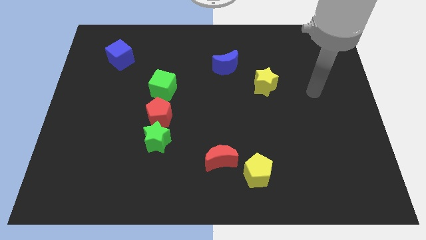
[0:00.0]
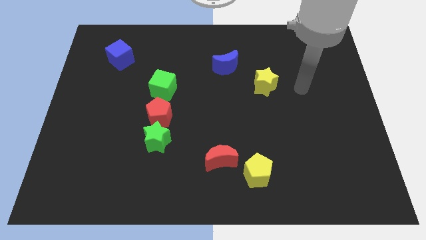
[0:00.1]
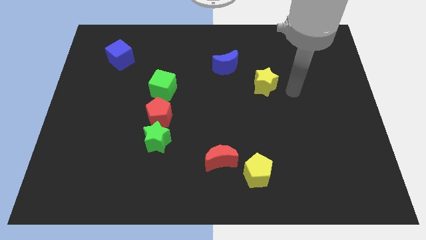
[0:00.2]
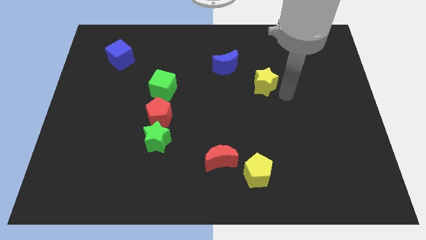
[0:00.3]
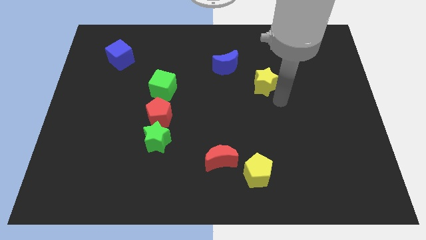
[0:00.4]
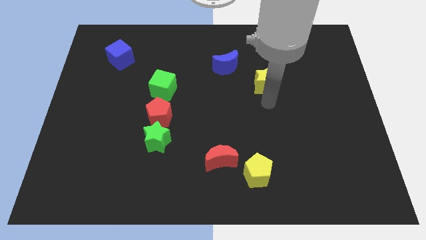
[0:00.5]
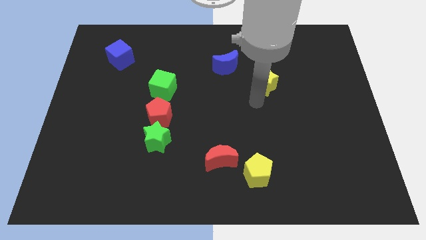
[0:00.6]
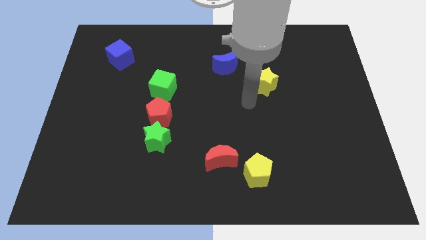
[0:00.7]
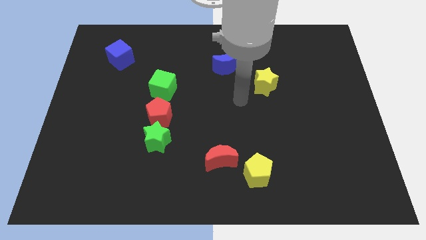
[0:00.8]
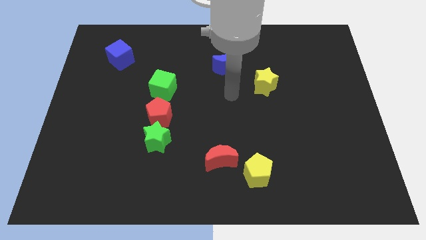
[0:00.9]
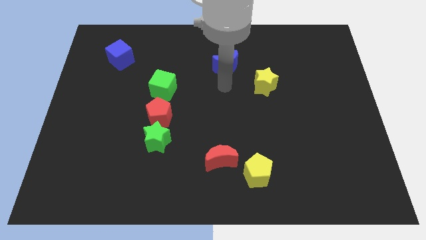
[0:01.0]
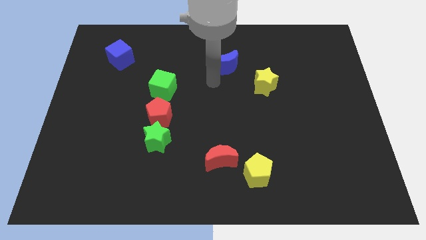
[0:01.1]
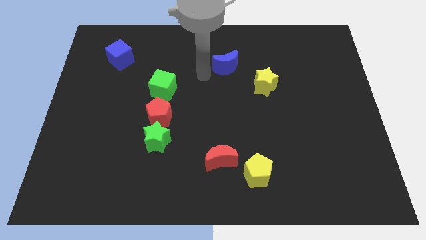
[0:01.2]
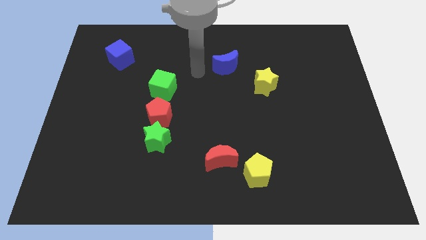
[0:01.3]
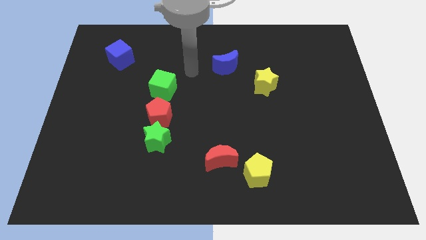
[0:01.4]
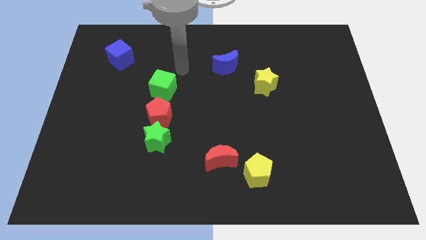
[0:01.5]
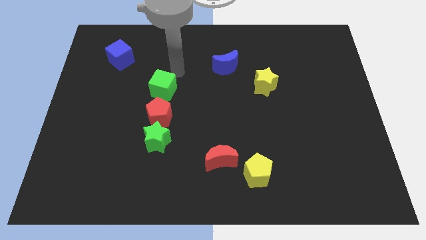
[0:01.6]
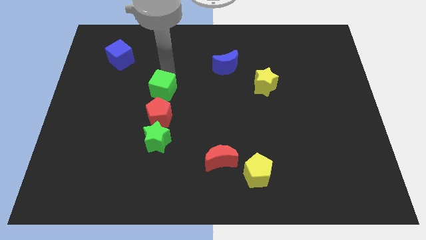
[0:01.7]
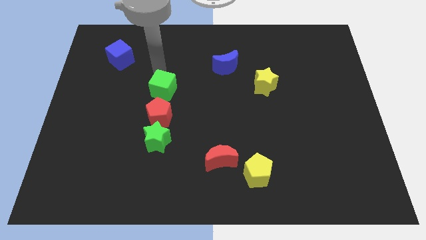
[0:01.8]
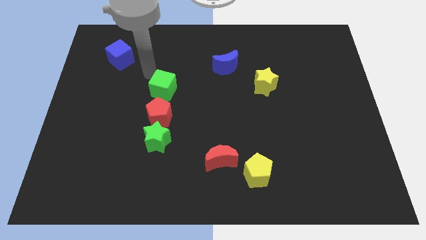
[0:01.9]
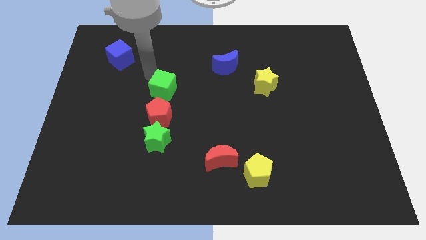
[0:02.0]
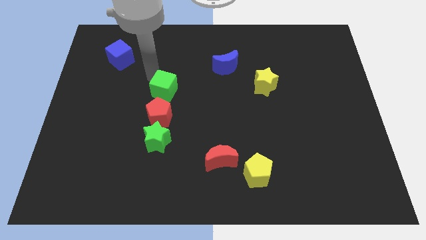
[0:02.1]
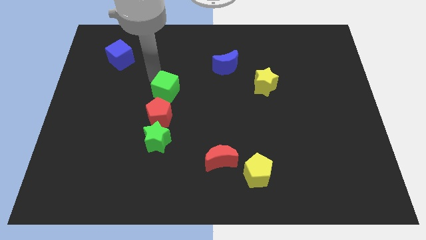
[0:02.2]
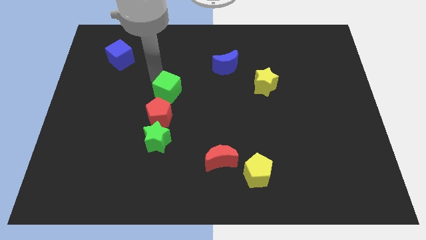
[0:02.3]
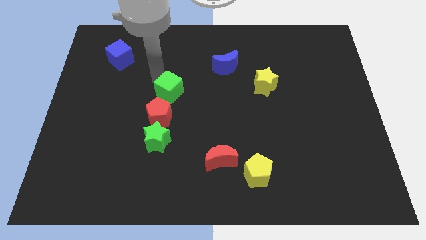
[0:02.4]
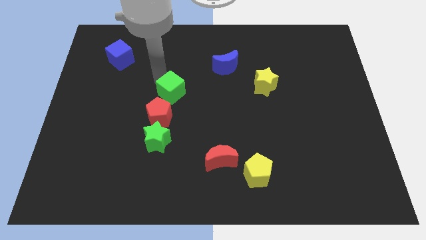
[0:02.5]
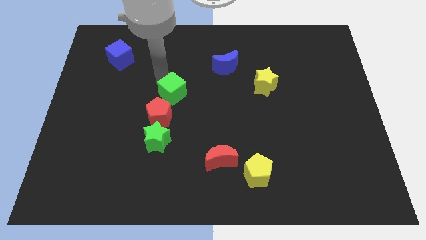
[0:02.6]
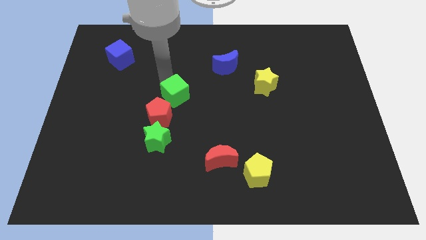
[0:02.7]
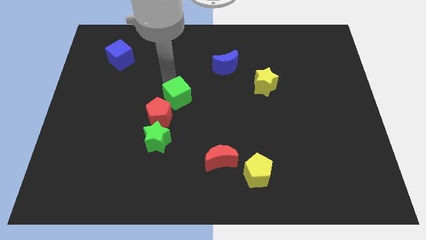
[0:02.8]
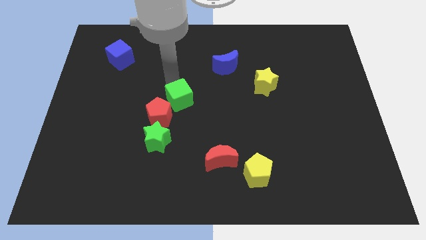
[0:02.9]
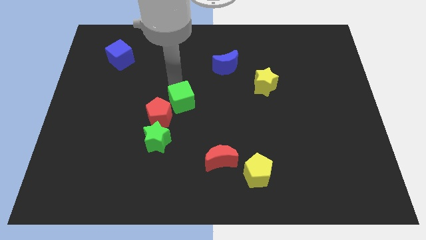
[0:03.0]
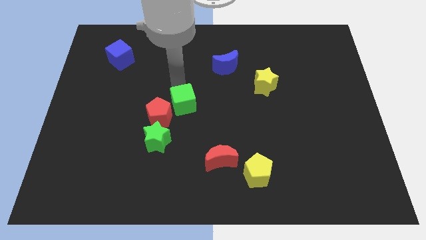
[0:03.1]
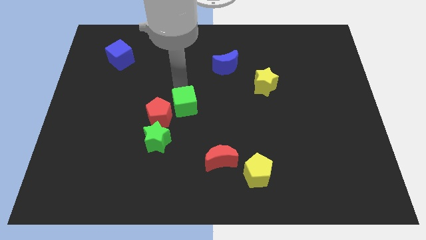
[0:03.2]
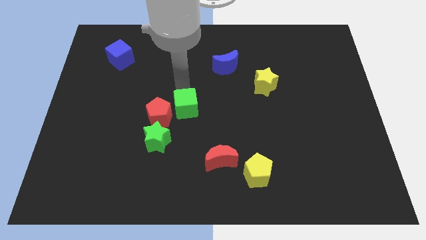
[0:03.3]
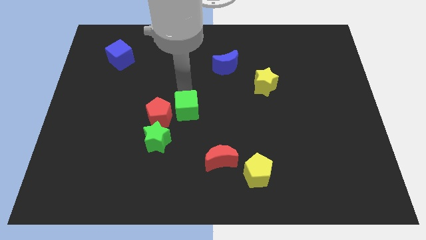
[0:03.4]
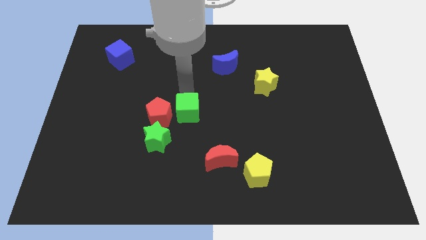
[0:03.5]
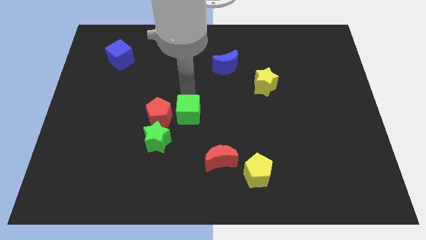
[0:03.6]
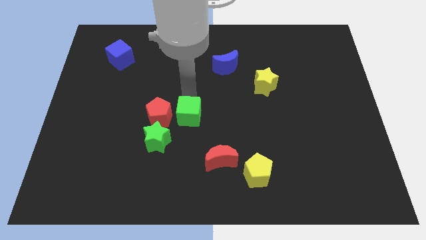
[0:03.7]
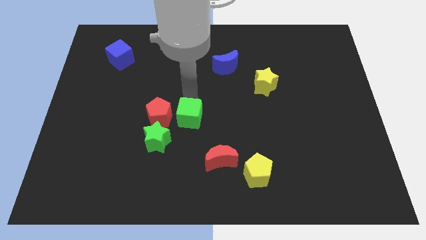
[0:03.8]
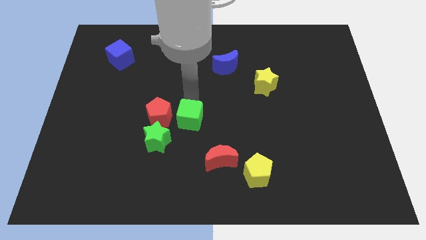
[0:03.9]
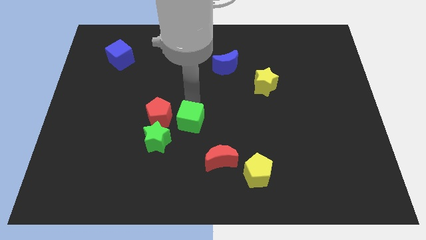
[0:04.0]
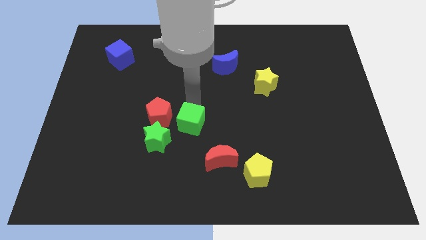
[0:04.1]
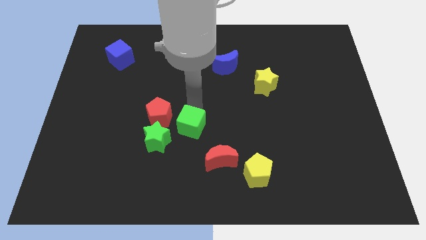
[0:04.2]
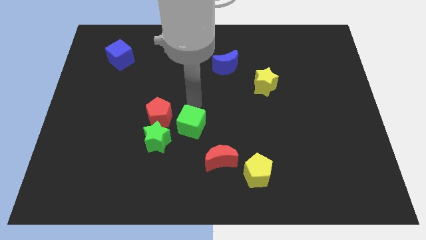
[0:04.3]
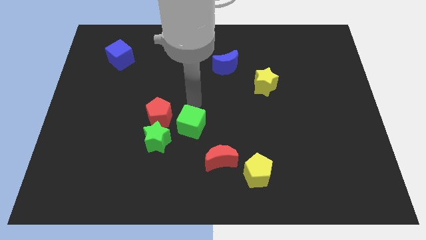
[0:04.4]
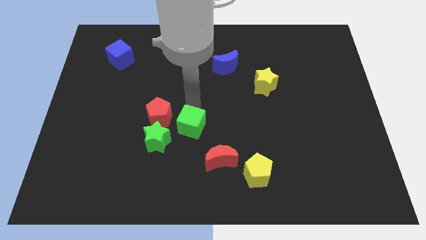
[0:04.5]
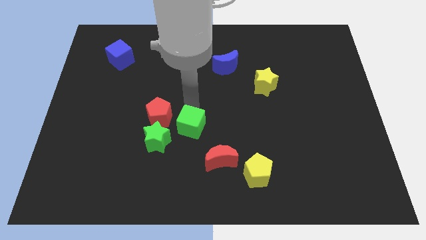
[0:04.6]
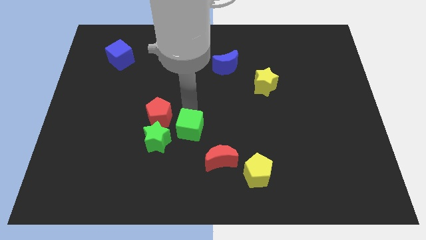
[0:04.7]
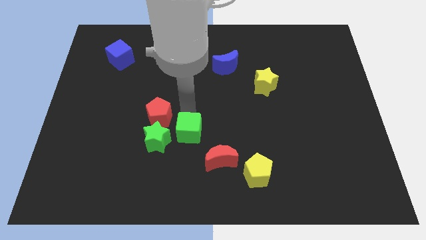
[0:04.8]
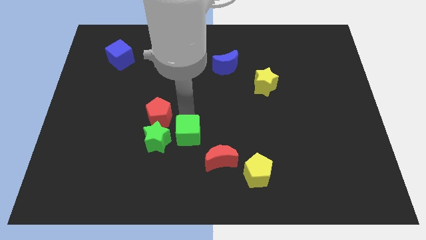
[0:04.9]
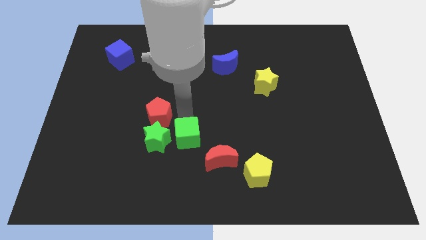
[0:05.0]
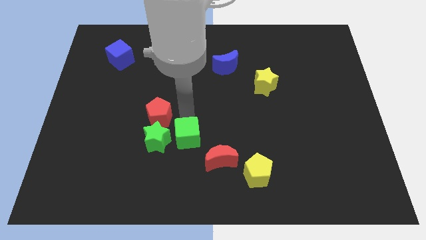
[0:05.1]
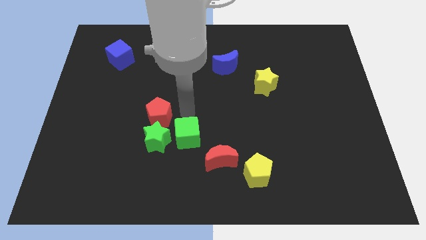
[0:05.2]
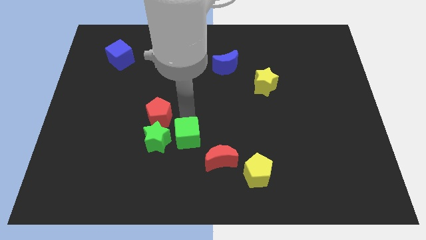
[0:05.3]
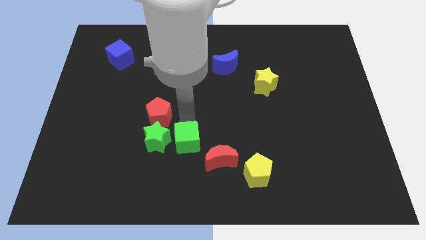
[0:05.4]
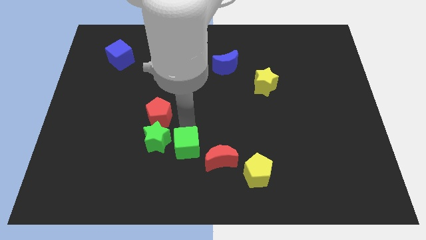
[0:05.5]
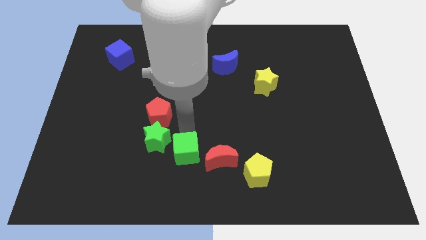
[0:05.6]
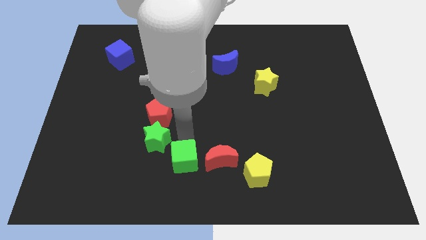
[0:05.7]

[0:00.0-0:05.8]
slide the green cube to the bottom

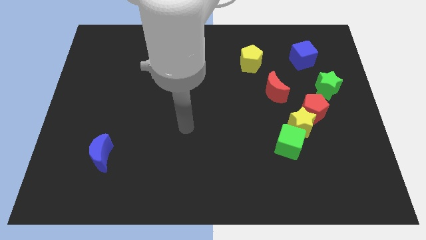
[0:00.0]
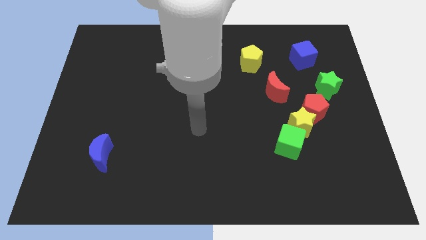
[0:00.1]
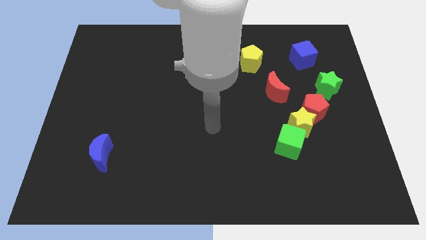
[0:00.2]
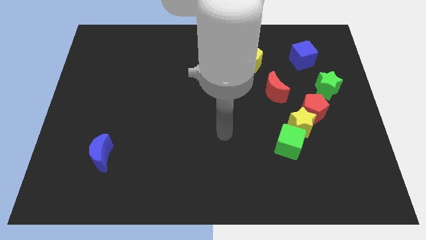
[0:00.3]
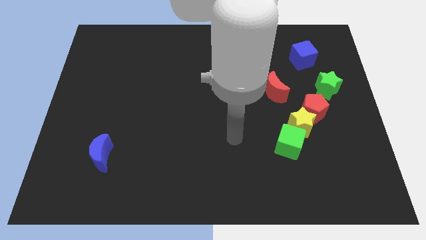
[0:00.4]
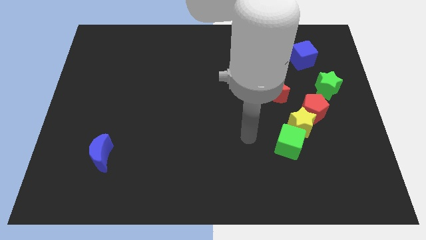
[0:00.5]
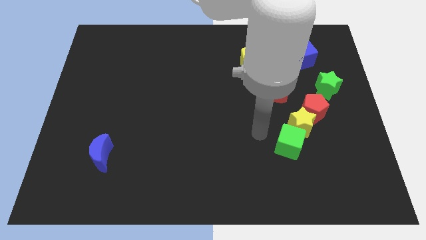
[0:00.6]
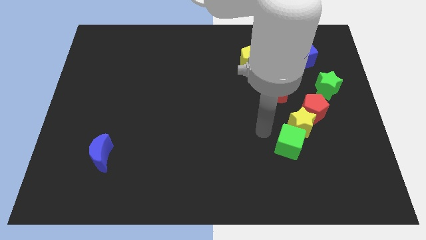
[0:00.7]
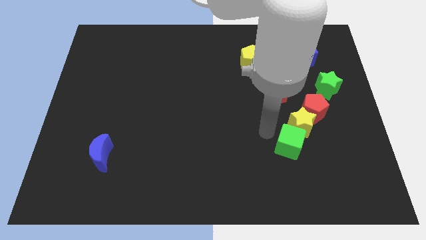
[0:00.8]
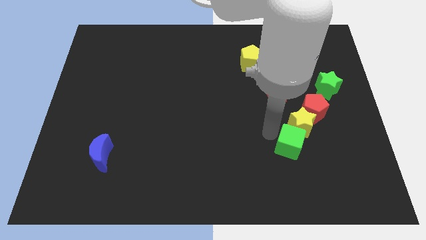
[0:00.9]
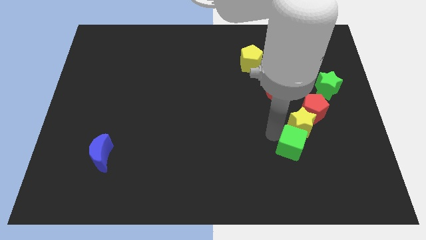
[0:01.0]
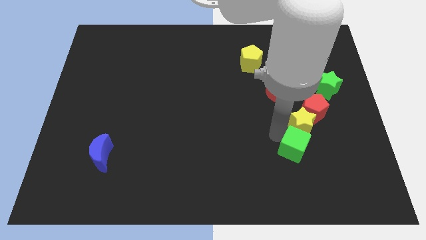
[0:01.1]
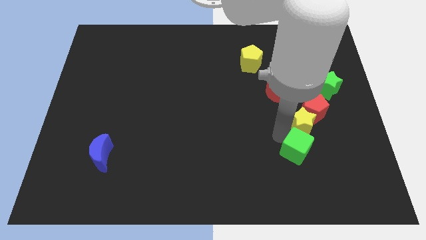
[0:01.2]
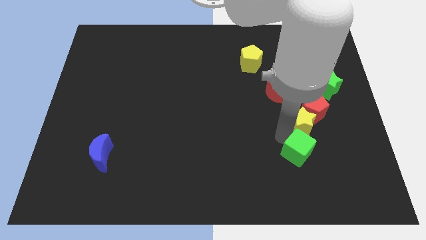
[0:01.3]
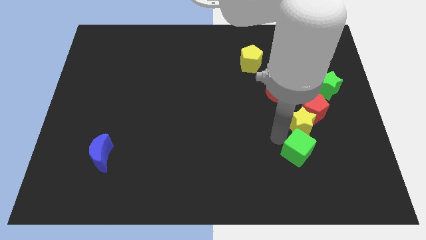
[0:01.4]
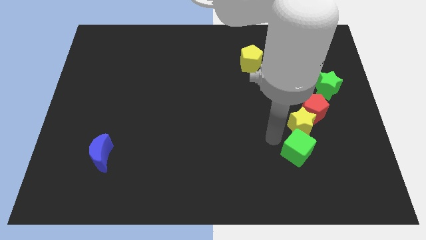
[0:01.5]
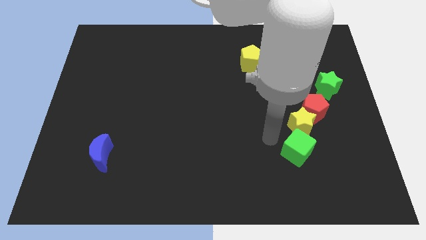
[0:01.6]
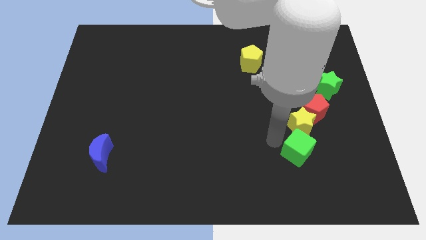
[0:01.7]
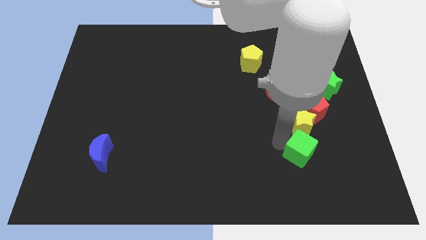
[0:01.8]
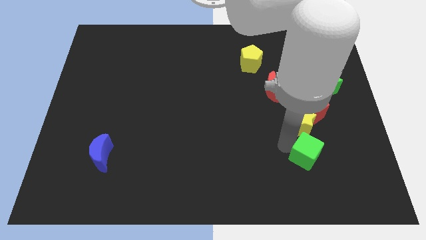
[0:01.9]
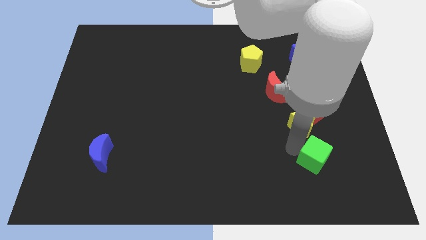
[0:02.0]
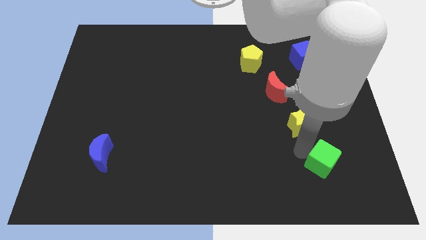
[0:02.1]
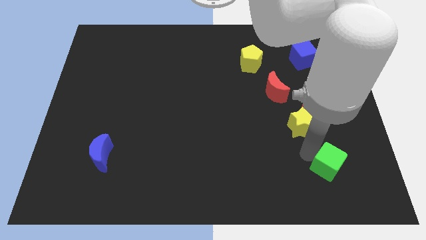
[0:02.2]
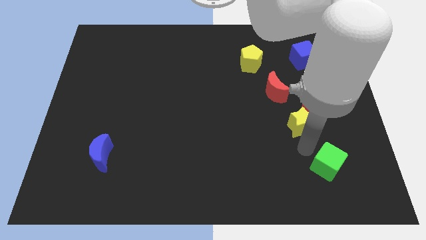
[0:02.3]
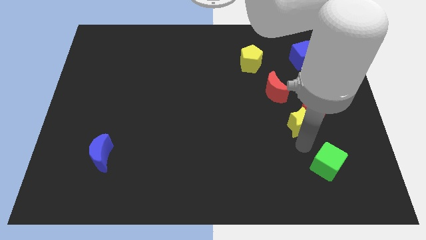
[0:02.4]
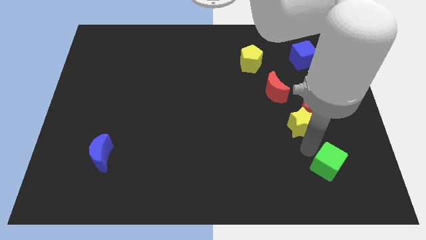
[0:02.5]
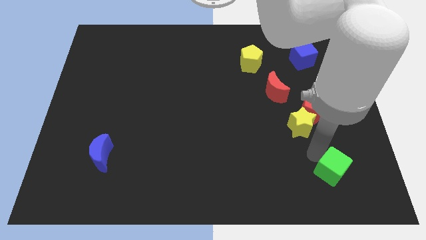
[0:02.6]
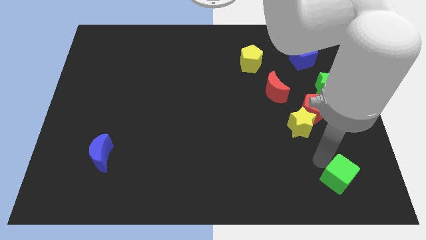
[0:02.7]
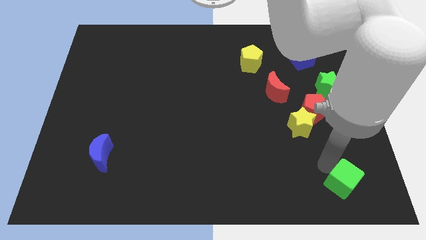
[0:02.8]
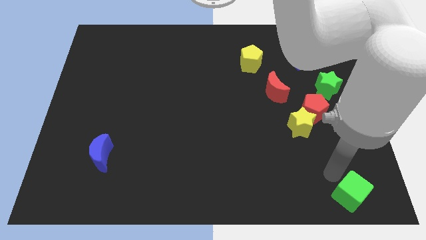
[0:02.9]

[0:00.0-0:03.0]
put the green cube to the lower right corner
